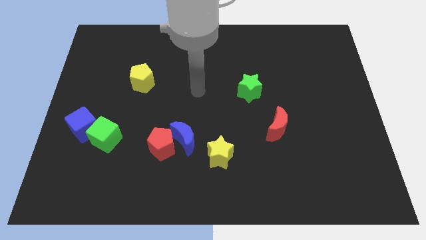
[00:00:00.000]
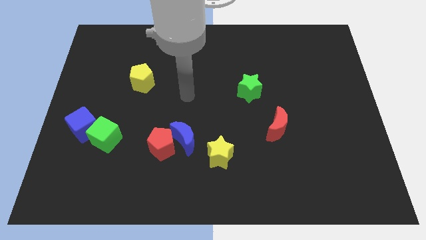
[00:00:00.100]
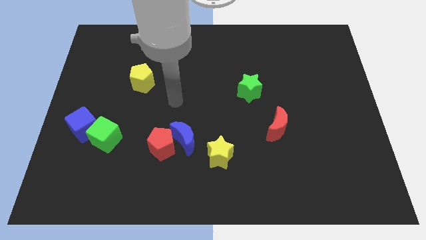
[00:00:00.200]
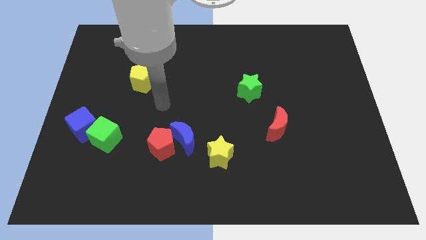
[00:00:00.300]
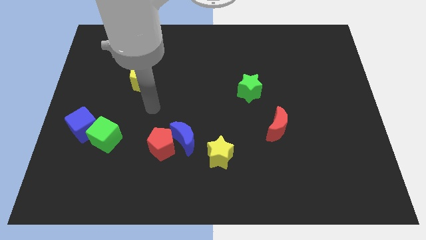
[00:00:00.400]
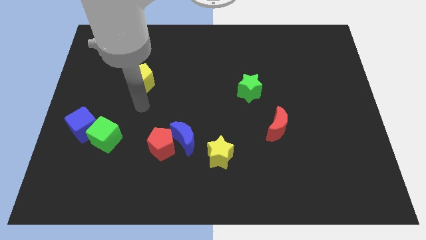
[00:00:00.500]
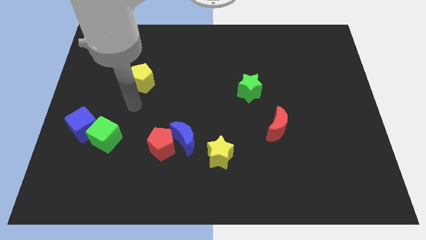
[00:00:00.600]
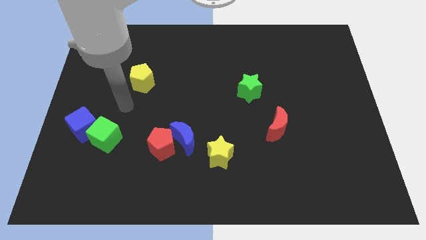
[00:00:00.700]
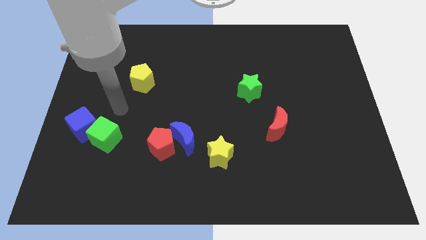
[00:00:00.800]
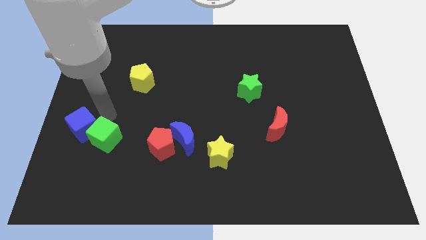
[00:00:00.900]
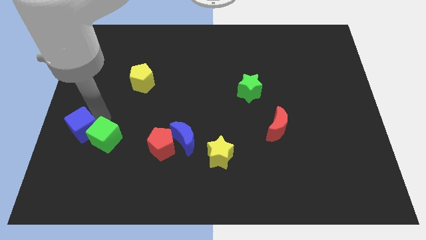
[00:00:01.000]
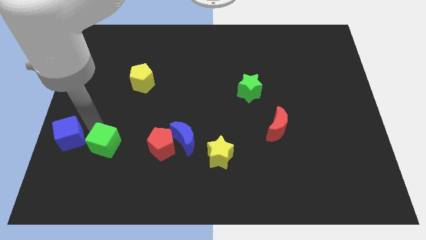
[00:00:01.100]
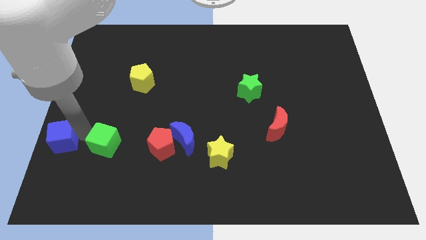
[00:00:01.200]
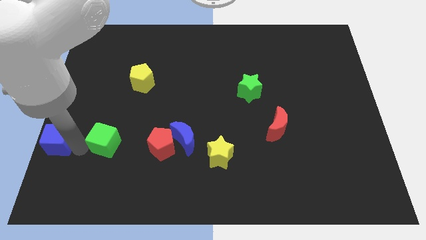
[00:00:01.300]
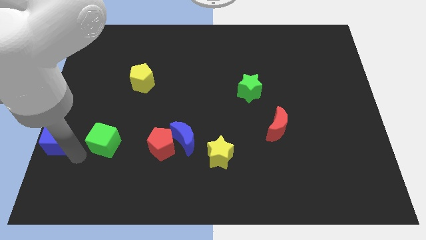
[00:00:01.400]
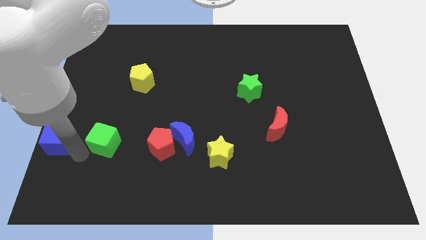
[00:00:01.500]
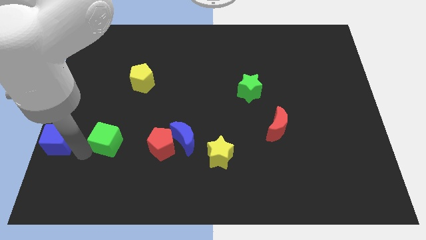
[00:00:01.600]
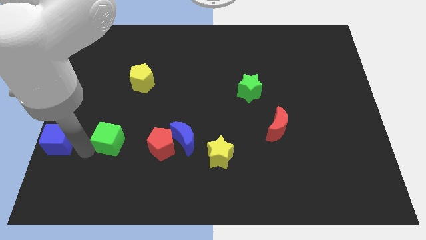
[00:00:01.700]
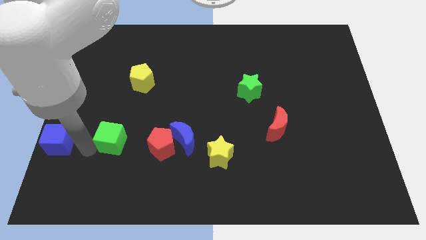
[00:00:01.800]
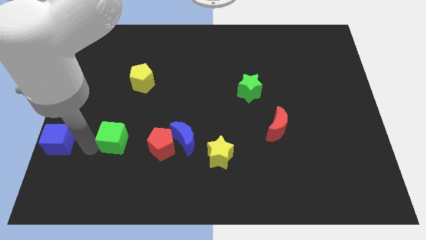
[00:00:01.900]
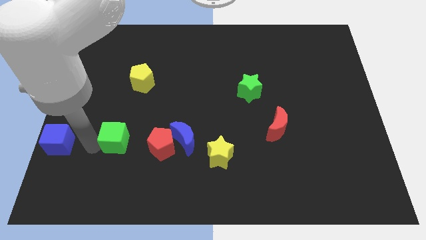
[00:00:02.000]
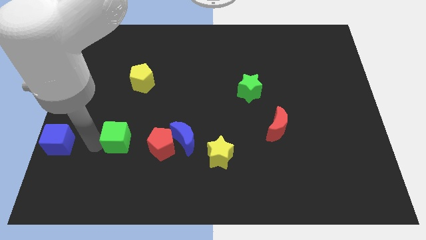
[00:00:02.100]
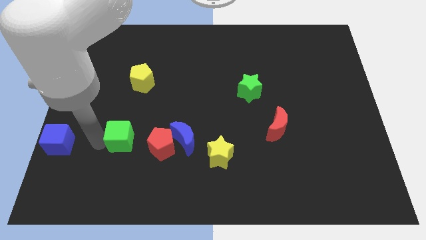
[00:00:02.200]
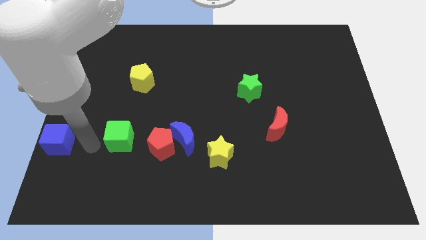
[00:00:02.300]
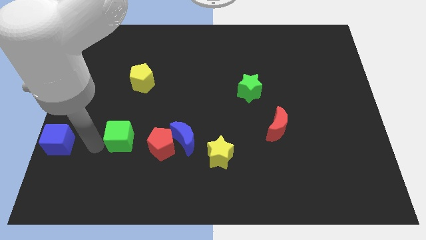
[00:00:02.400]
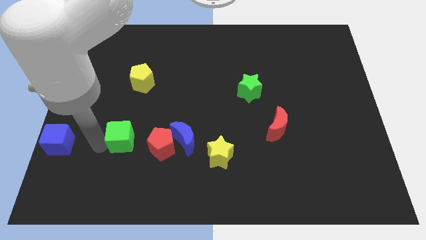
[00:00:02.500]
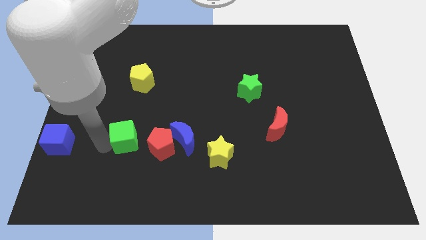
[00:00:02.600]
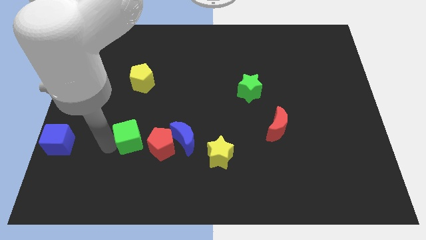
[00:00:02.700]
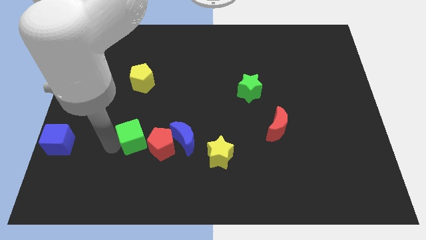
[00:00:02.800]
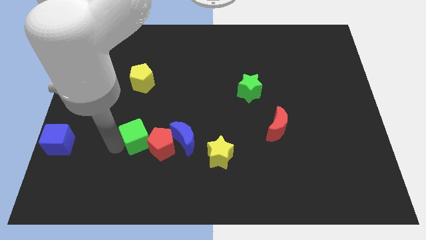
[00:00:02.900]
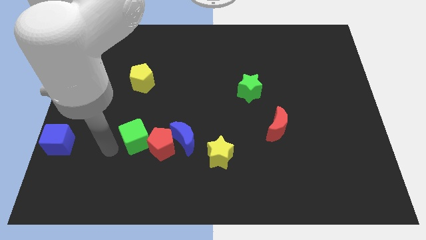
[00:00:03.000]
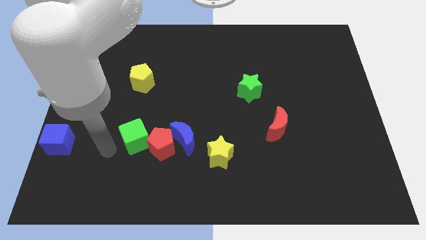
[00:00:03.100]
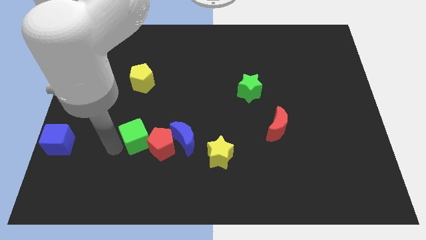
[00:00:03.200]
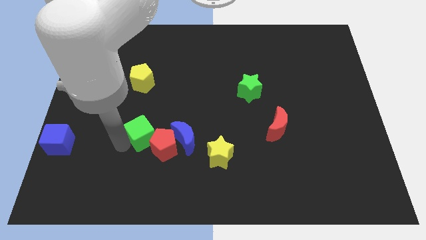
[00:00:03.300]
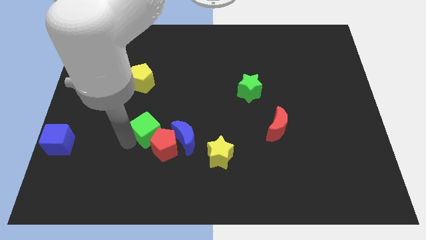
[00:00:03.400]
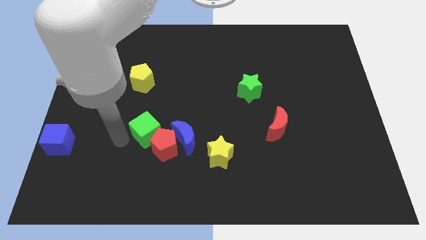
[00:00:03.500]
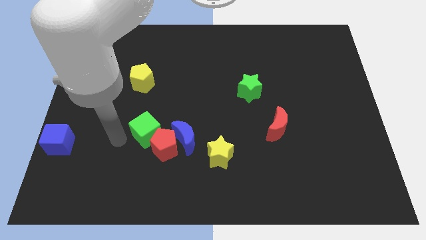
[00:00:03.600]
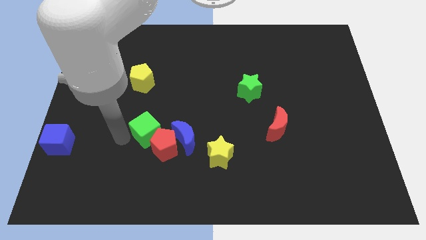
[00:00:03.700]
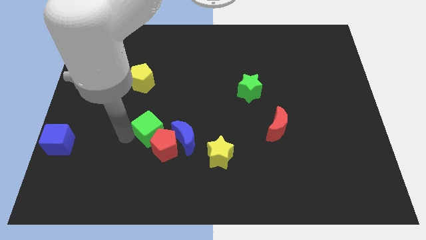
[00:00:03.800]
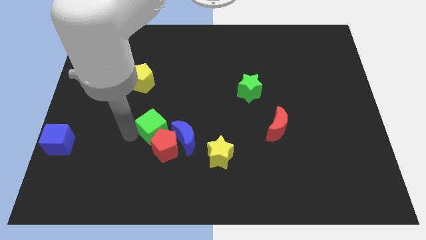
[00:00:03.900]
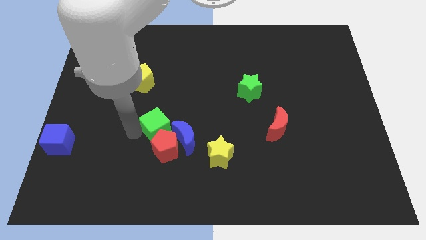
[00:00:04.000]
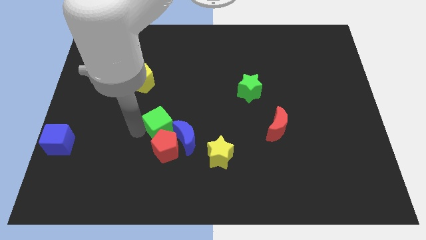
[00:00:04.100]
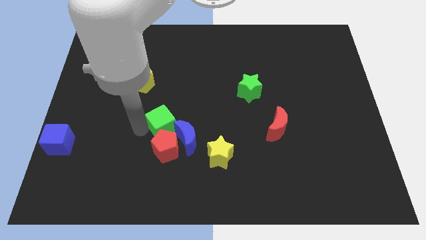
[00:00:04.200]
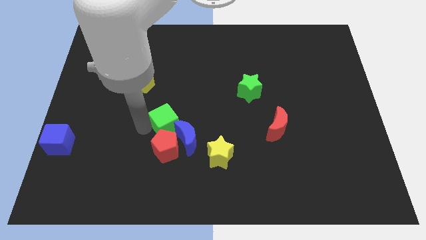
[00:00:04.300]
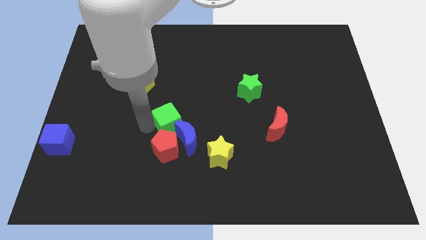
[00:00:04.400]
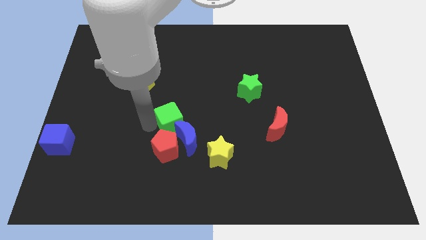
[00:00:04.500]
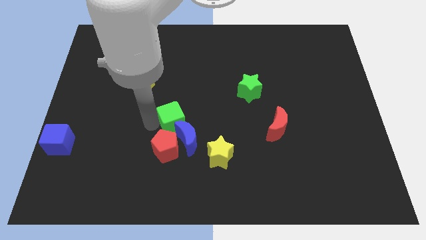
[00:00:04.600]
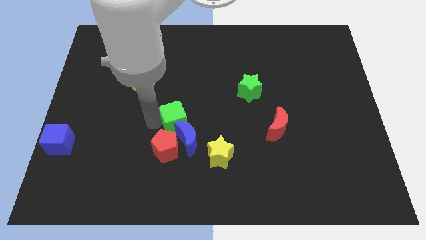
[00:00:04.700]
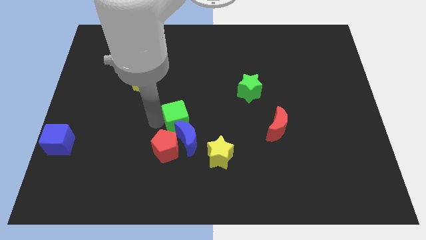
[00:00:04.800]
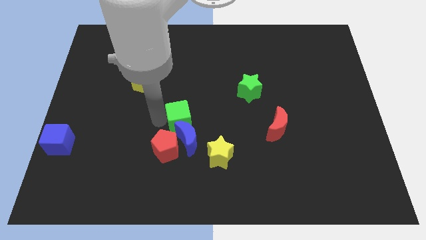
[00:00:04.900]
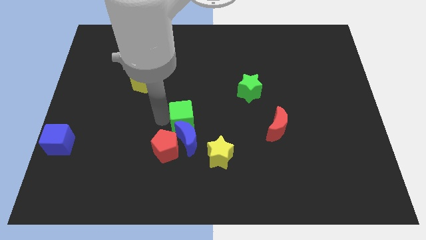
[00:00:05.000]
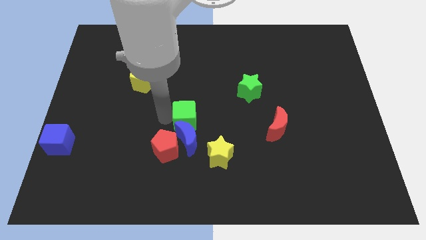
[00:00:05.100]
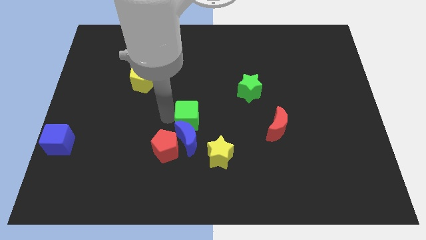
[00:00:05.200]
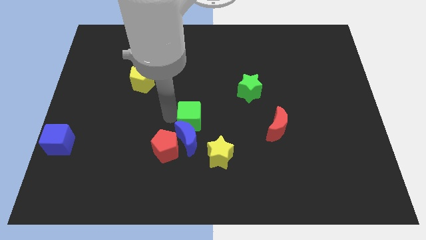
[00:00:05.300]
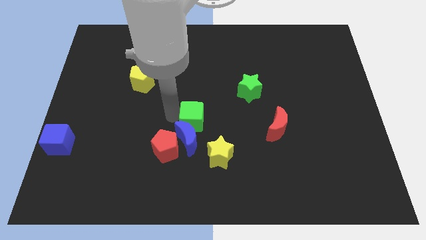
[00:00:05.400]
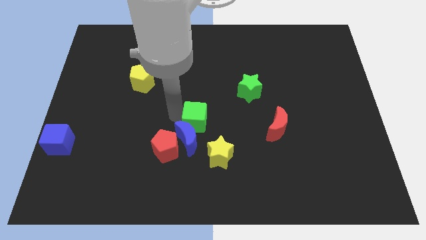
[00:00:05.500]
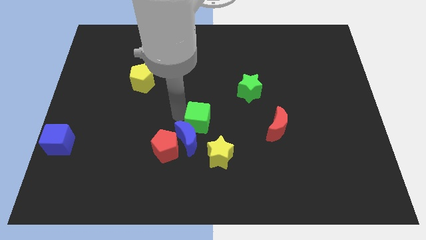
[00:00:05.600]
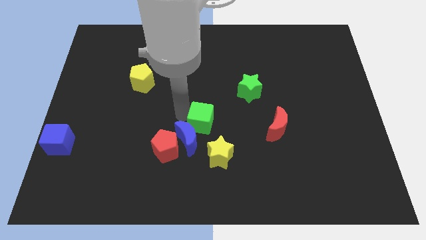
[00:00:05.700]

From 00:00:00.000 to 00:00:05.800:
push the green cube to the right

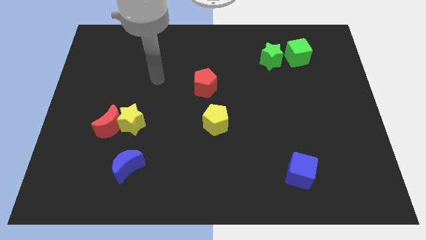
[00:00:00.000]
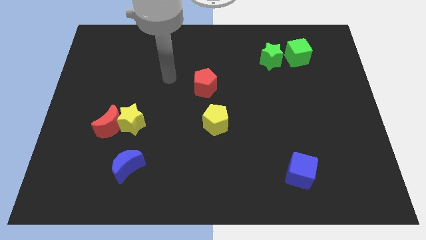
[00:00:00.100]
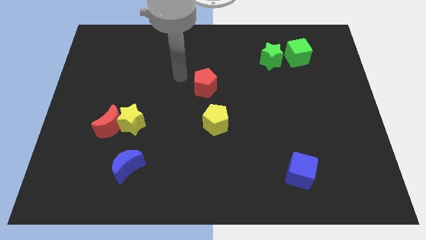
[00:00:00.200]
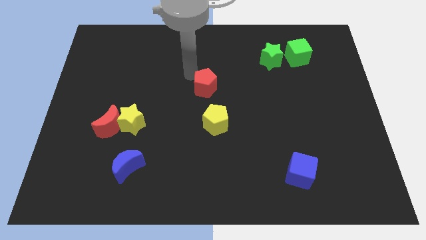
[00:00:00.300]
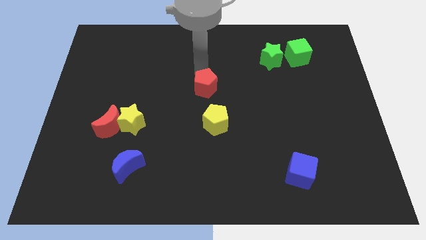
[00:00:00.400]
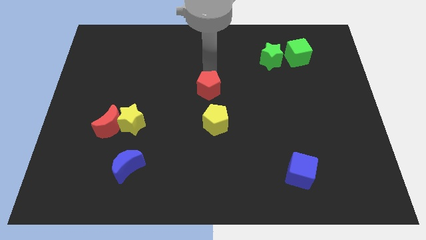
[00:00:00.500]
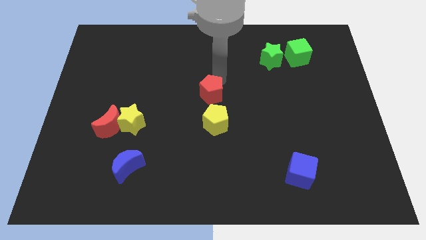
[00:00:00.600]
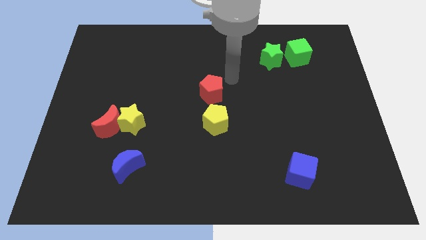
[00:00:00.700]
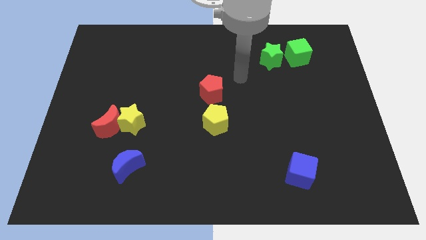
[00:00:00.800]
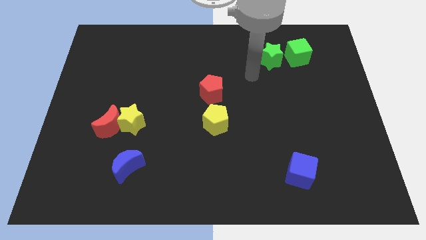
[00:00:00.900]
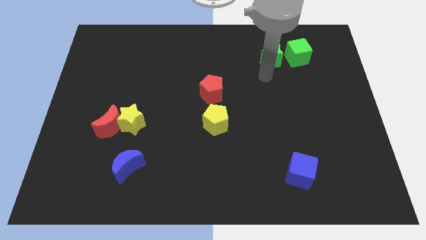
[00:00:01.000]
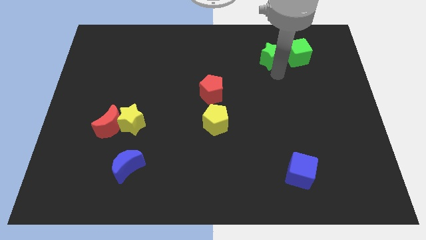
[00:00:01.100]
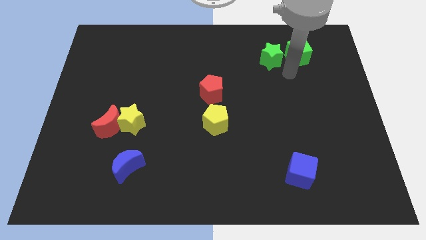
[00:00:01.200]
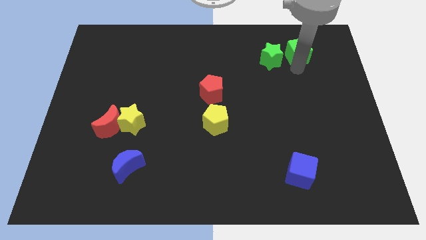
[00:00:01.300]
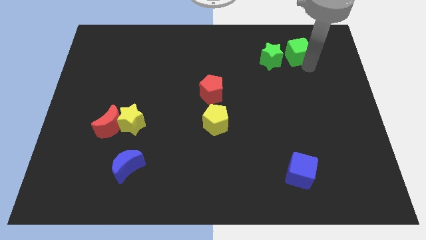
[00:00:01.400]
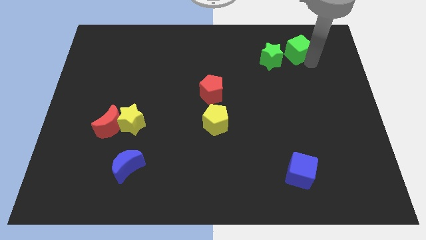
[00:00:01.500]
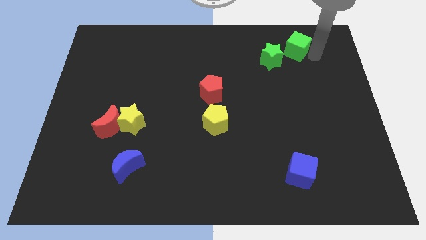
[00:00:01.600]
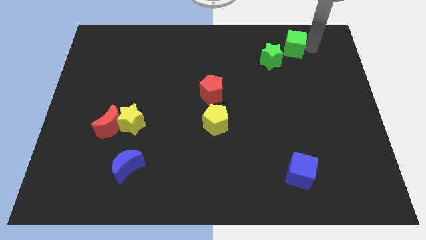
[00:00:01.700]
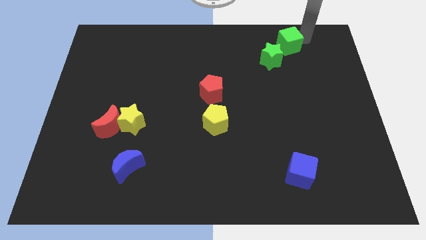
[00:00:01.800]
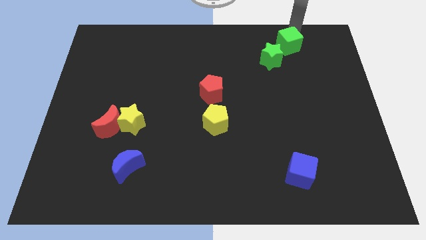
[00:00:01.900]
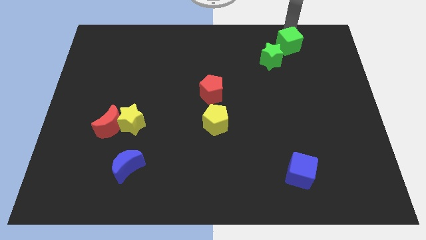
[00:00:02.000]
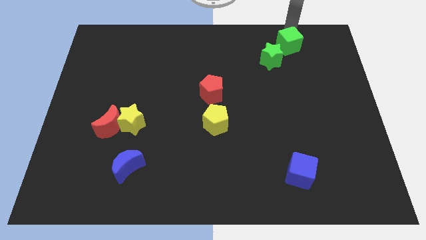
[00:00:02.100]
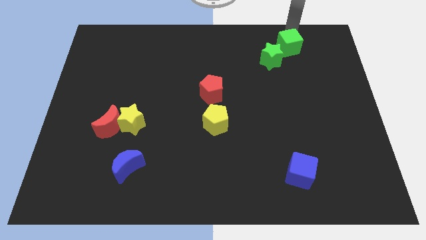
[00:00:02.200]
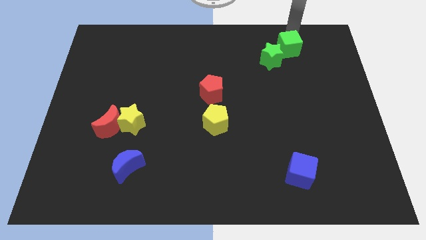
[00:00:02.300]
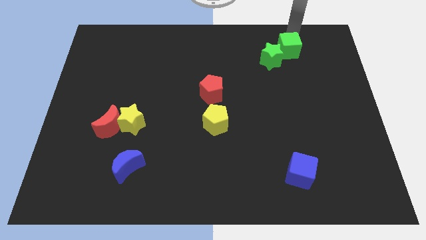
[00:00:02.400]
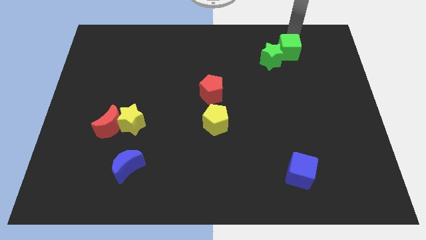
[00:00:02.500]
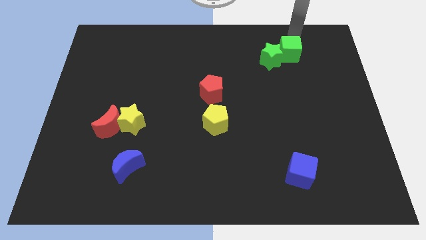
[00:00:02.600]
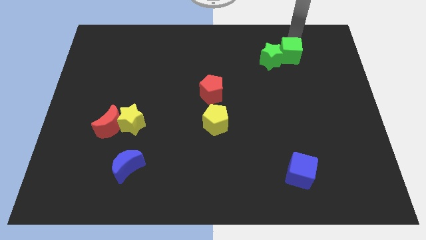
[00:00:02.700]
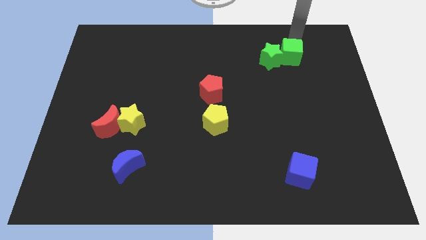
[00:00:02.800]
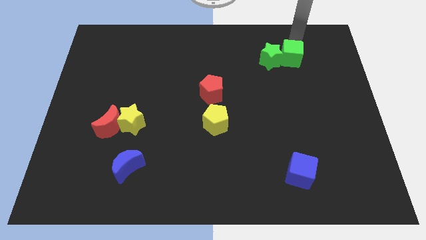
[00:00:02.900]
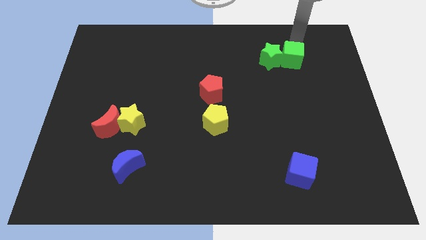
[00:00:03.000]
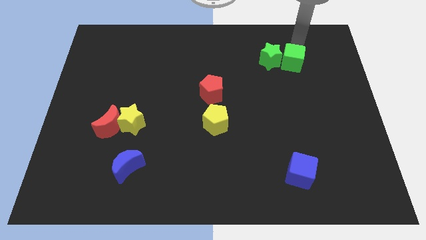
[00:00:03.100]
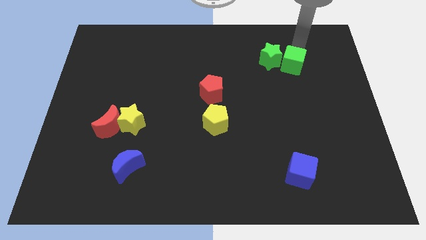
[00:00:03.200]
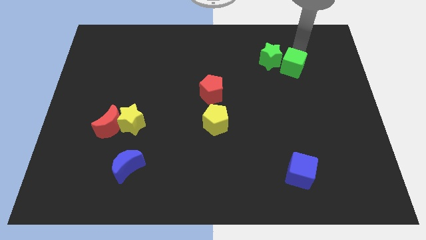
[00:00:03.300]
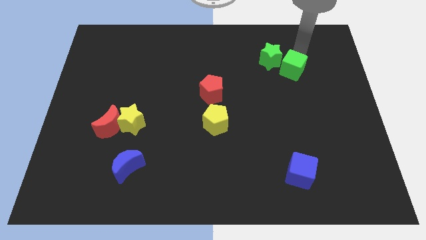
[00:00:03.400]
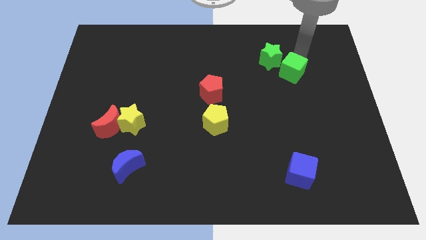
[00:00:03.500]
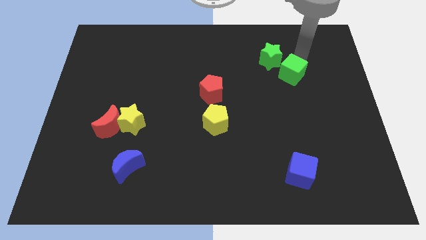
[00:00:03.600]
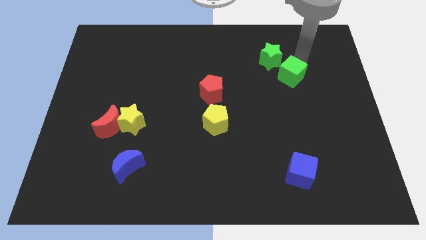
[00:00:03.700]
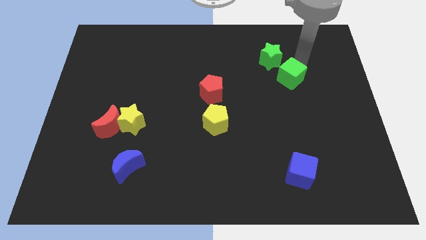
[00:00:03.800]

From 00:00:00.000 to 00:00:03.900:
move the green cube a bit downwards and left
